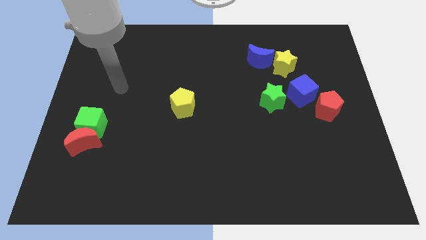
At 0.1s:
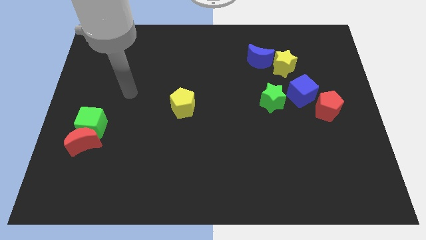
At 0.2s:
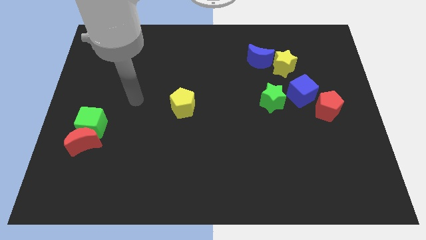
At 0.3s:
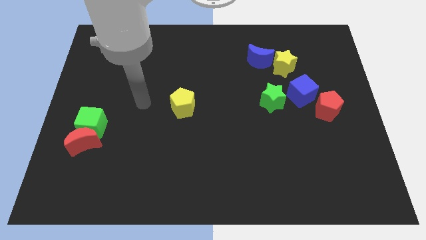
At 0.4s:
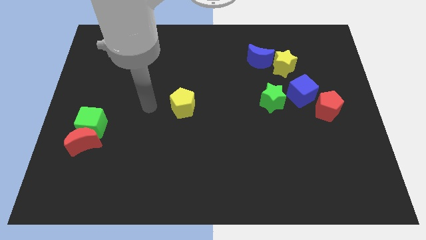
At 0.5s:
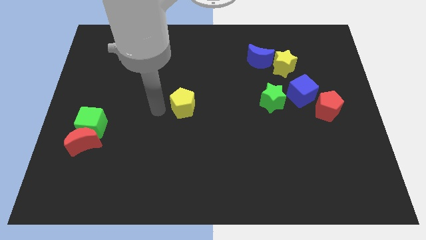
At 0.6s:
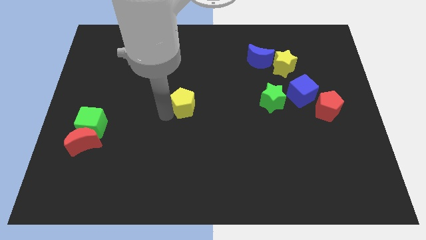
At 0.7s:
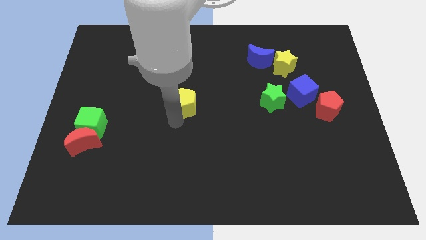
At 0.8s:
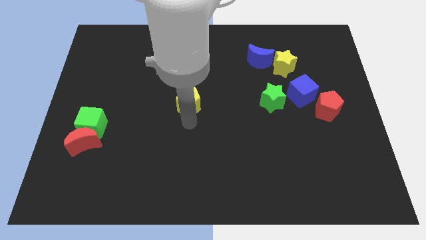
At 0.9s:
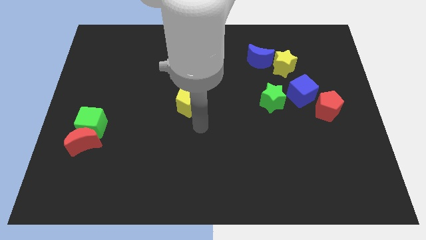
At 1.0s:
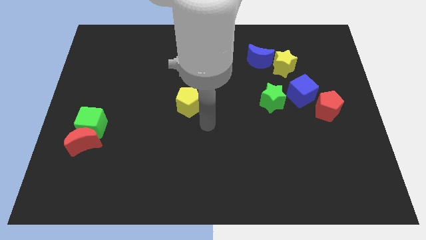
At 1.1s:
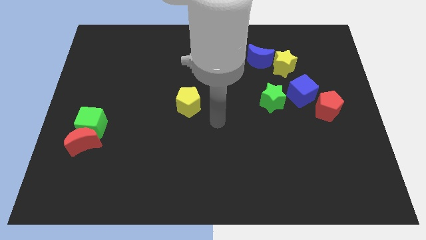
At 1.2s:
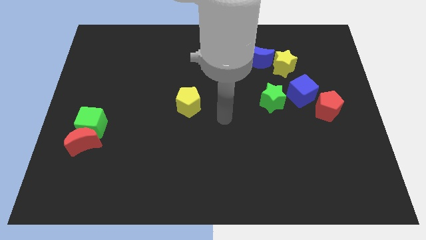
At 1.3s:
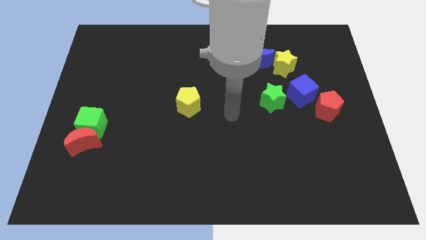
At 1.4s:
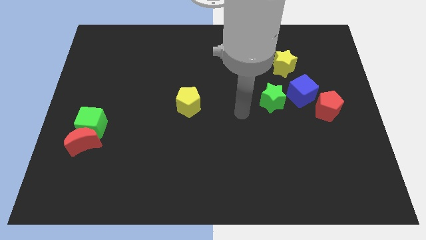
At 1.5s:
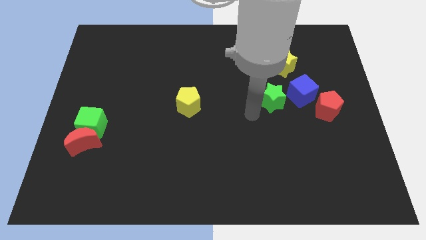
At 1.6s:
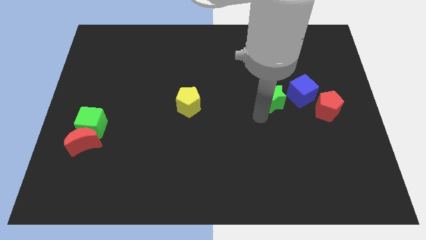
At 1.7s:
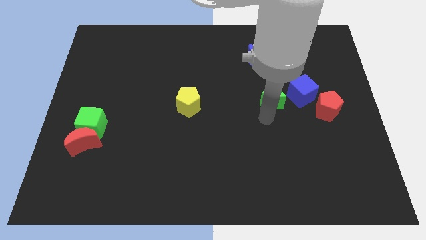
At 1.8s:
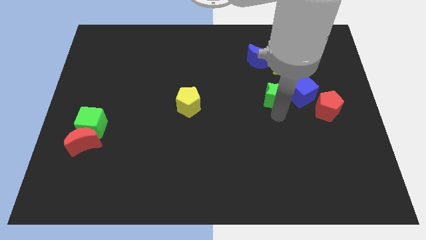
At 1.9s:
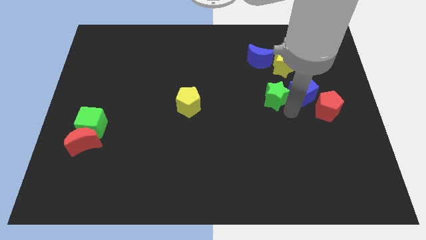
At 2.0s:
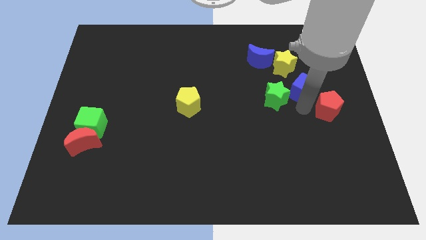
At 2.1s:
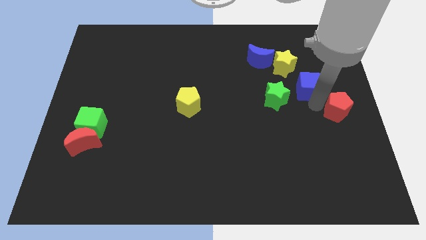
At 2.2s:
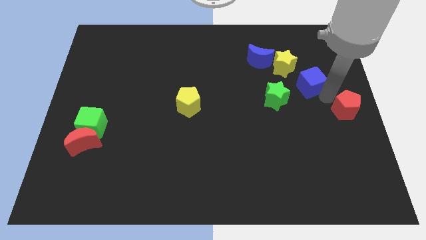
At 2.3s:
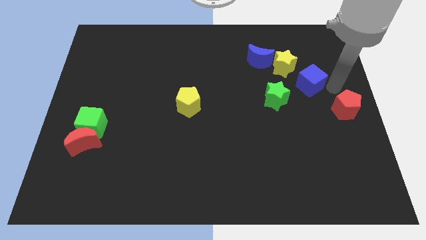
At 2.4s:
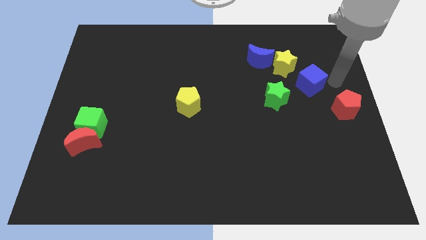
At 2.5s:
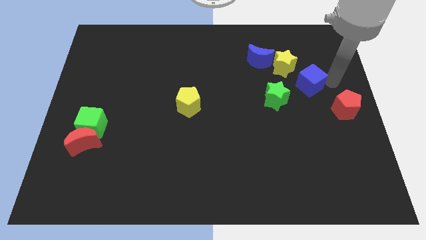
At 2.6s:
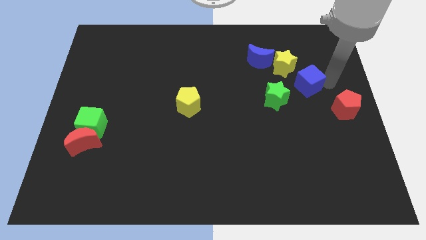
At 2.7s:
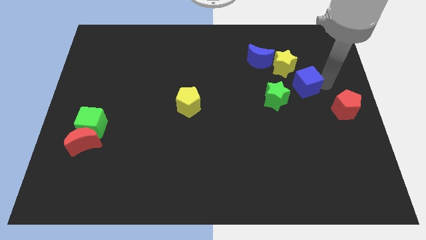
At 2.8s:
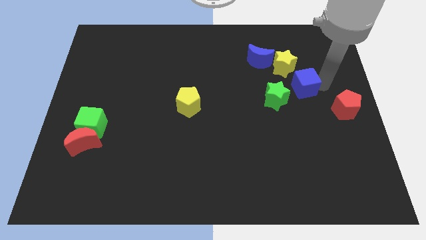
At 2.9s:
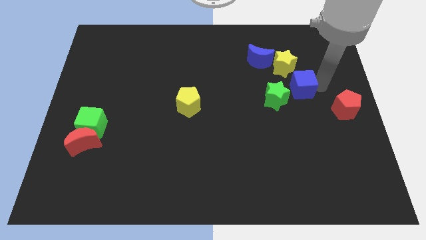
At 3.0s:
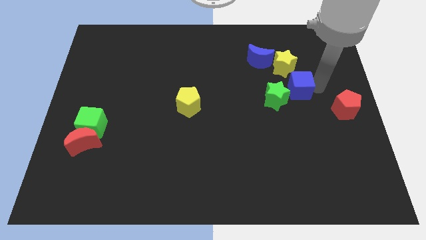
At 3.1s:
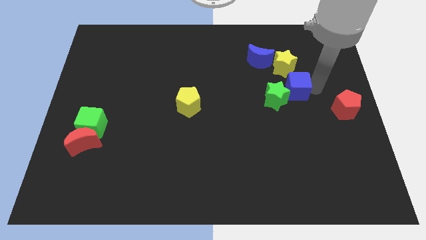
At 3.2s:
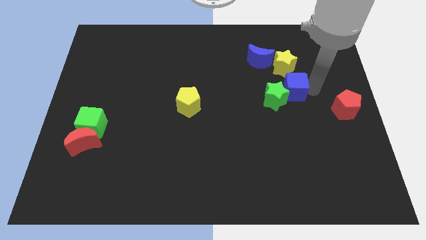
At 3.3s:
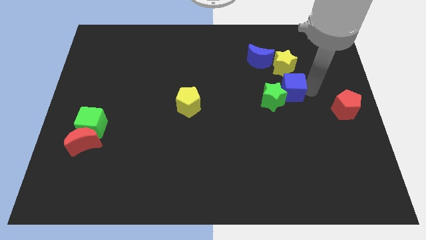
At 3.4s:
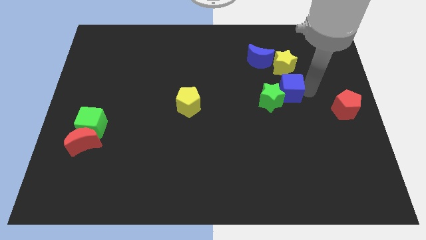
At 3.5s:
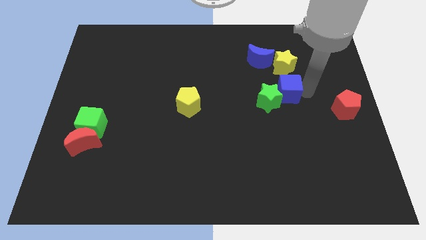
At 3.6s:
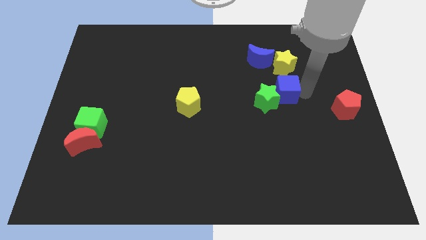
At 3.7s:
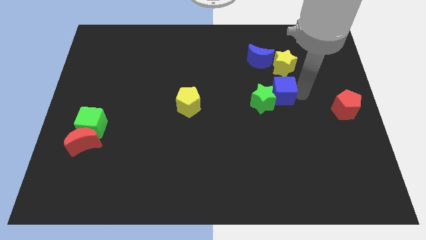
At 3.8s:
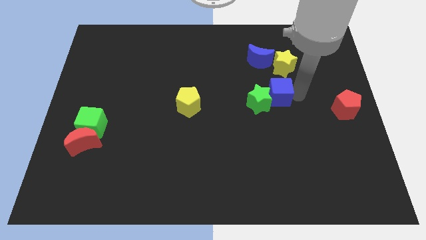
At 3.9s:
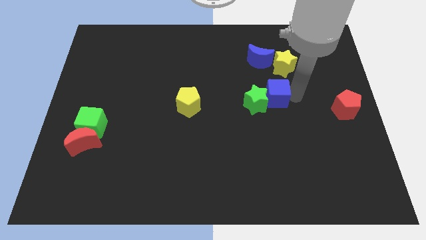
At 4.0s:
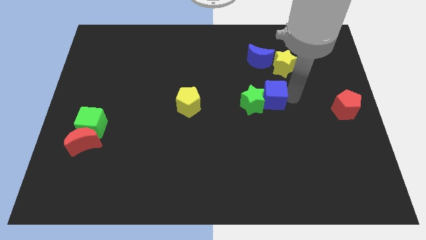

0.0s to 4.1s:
slightly slide the blue cube to the left

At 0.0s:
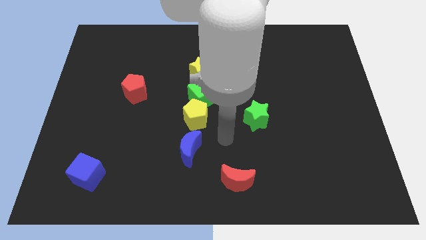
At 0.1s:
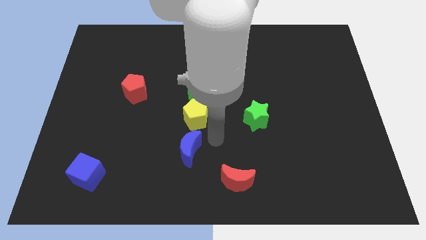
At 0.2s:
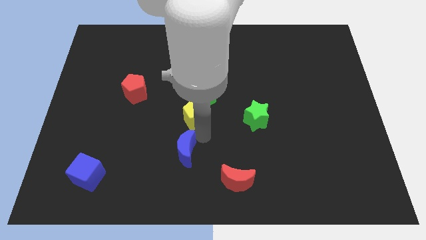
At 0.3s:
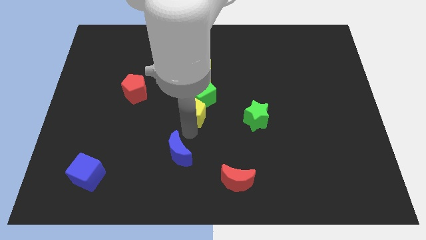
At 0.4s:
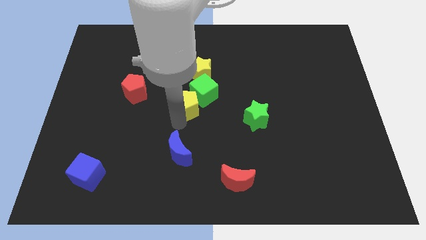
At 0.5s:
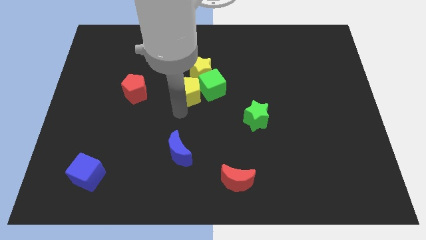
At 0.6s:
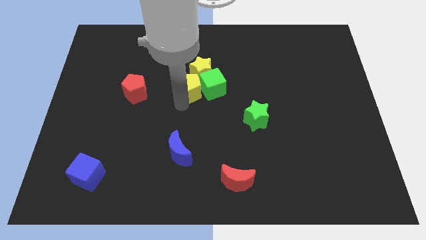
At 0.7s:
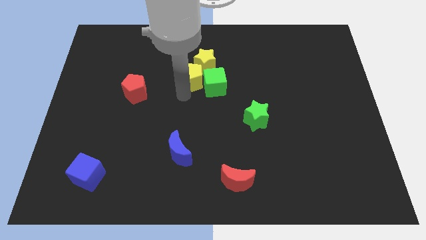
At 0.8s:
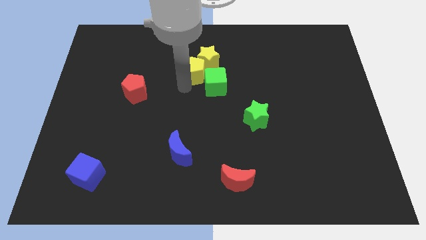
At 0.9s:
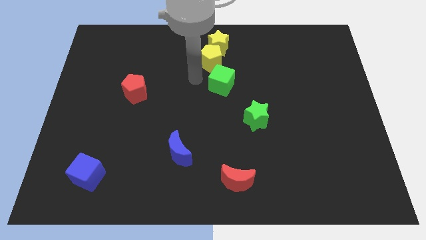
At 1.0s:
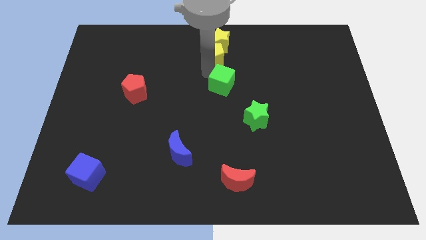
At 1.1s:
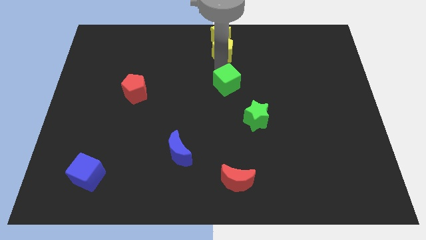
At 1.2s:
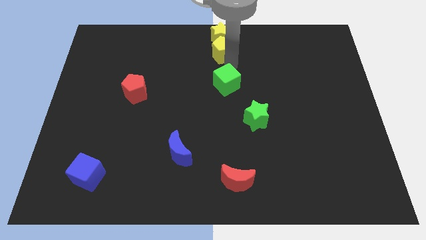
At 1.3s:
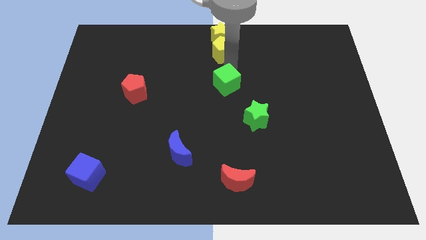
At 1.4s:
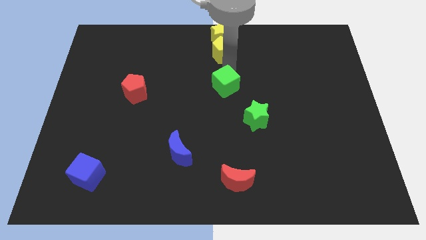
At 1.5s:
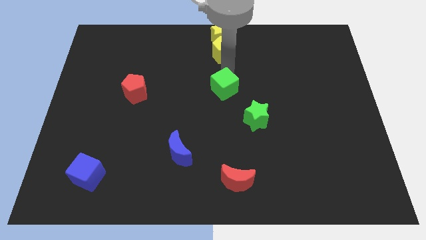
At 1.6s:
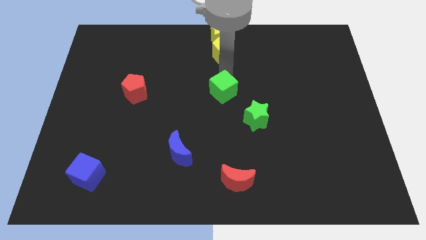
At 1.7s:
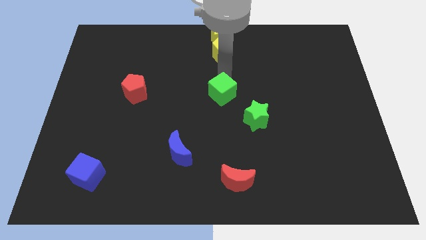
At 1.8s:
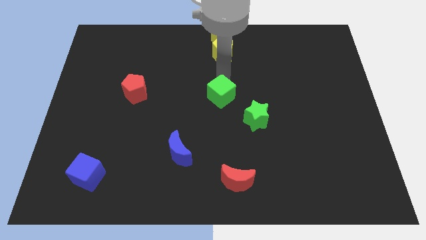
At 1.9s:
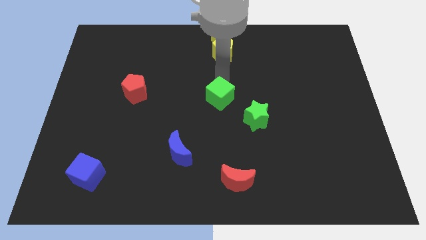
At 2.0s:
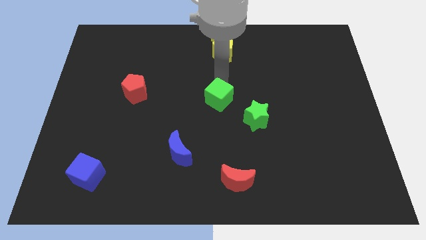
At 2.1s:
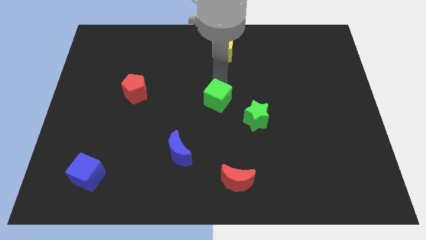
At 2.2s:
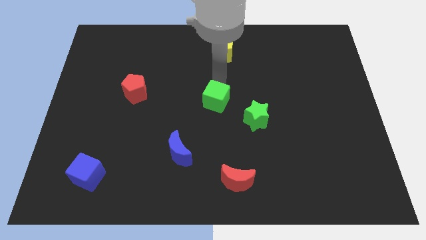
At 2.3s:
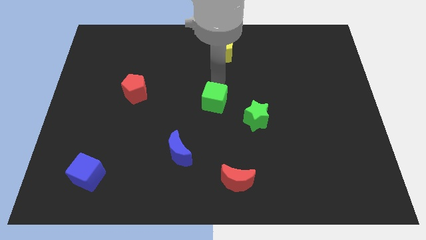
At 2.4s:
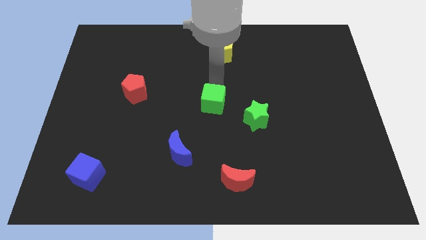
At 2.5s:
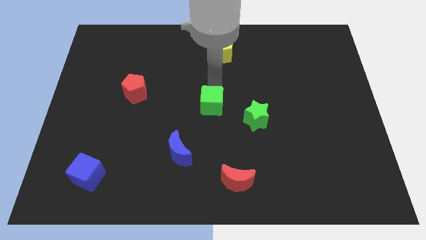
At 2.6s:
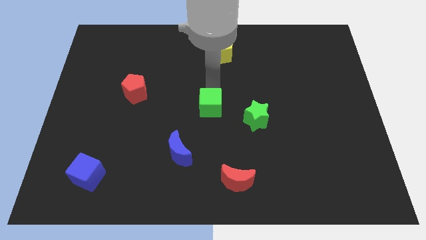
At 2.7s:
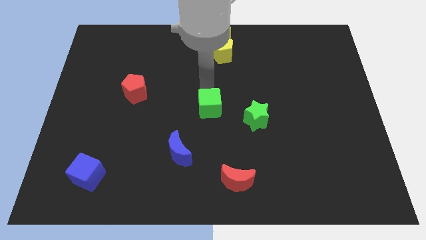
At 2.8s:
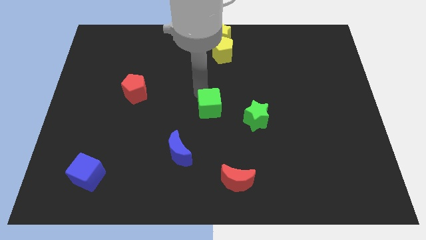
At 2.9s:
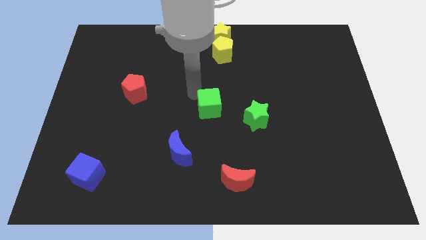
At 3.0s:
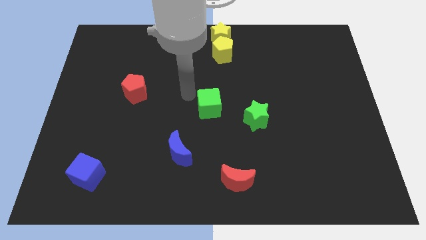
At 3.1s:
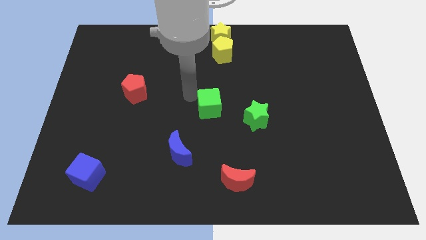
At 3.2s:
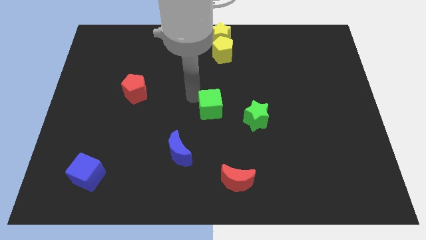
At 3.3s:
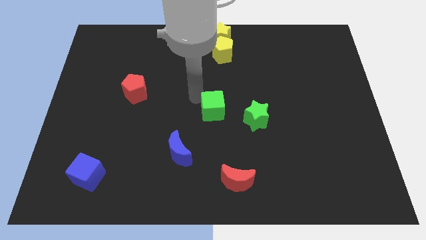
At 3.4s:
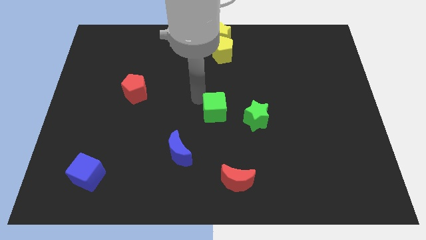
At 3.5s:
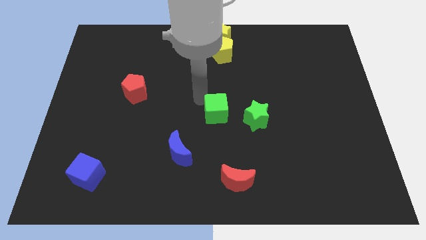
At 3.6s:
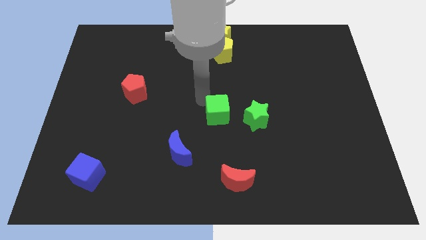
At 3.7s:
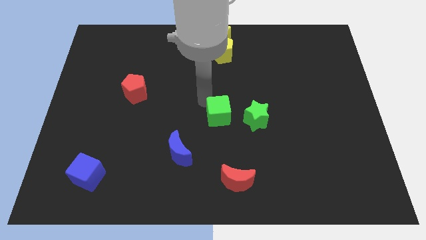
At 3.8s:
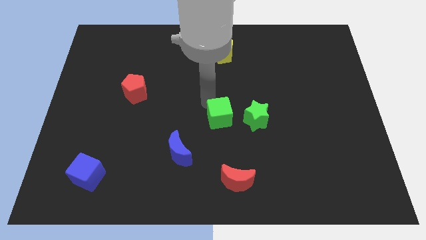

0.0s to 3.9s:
slightly move the green cube diagonally downwards and to the right

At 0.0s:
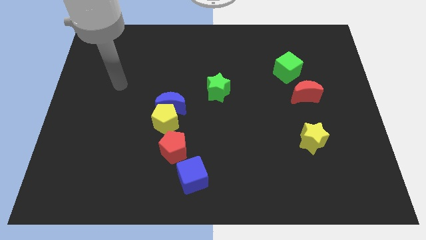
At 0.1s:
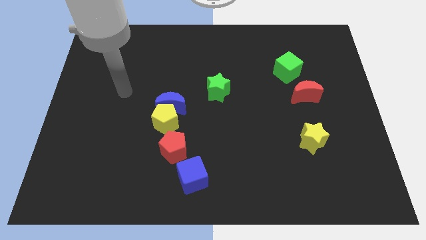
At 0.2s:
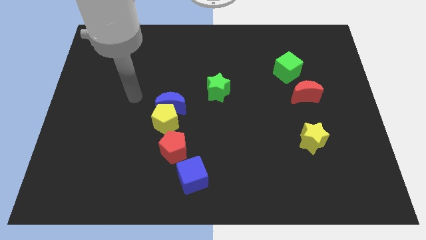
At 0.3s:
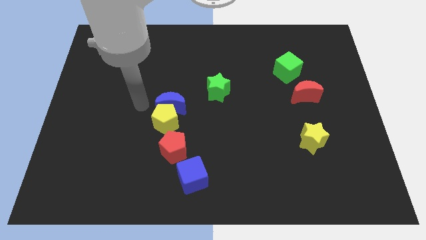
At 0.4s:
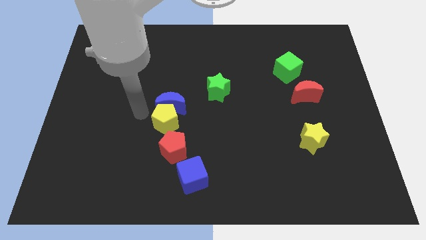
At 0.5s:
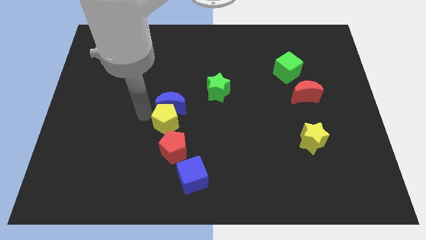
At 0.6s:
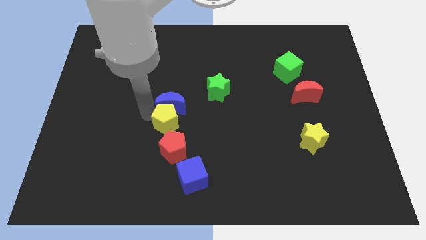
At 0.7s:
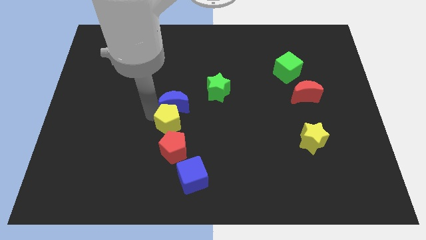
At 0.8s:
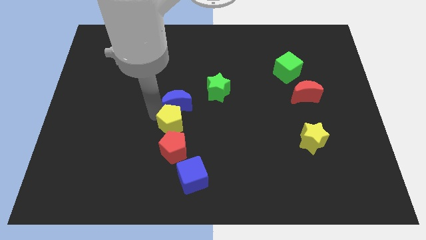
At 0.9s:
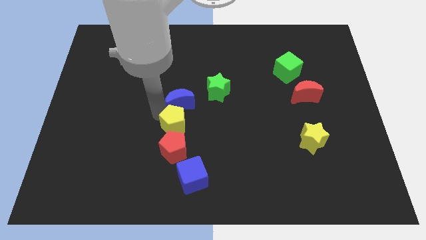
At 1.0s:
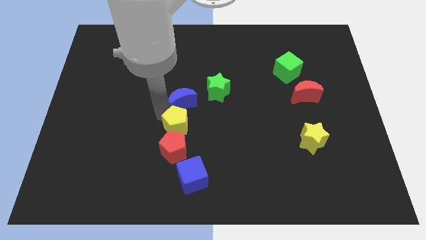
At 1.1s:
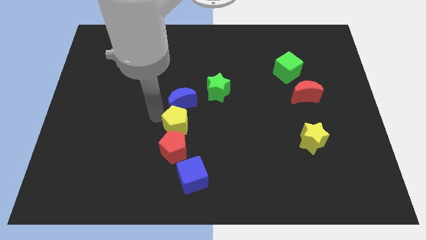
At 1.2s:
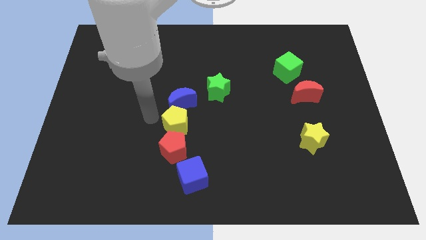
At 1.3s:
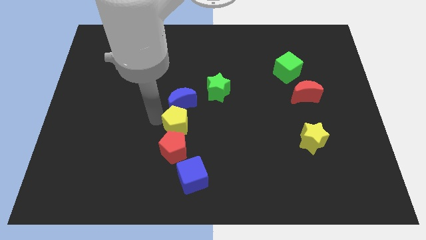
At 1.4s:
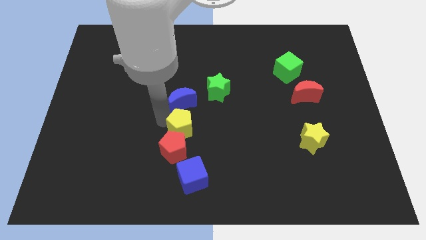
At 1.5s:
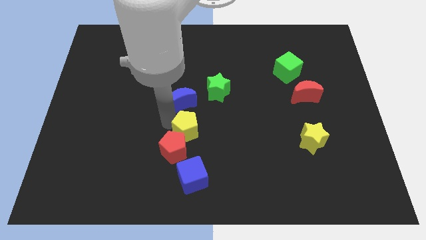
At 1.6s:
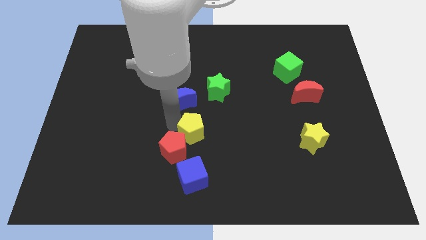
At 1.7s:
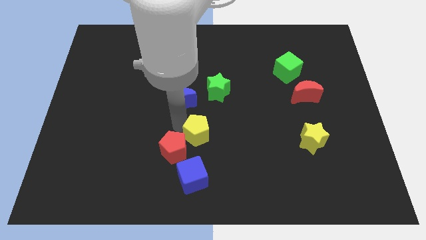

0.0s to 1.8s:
slightly push the yellow pentagon downwards and to the right
